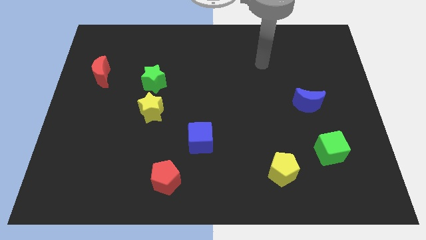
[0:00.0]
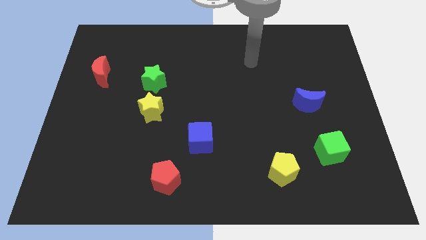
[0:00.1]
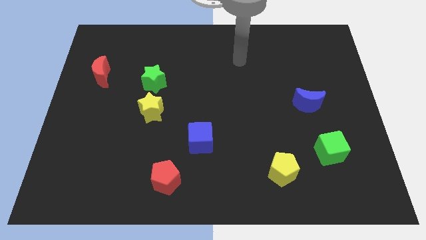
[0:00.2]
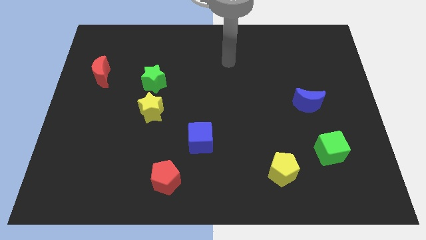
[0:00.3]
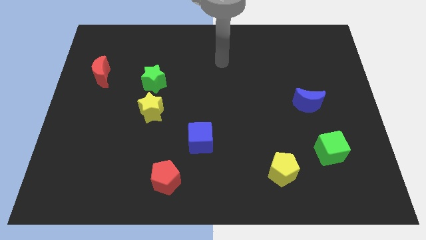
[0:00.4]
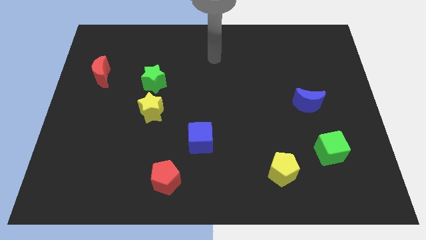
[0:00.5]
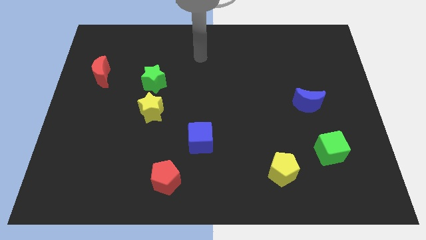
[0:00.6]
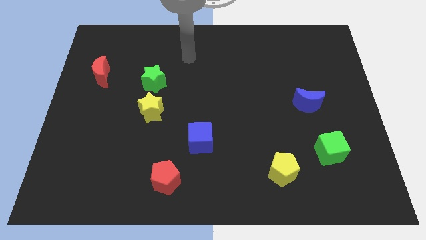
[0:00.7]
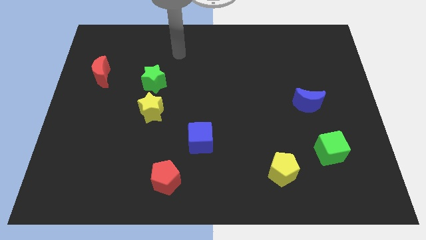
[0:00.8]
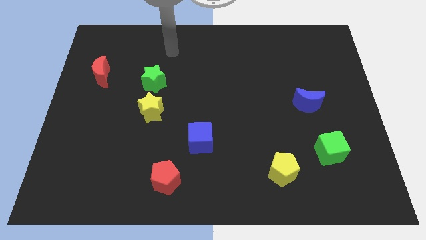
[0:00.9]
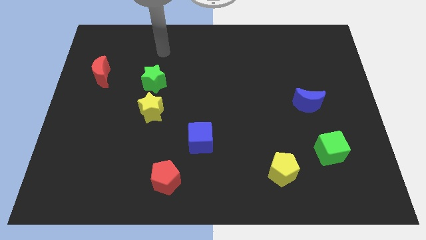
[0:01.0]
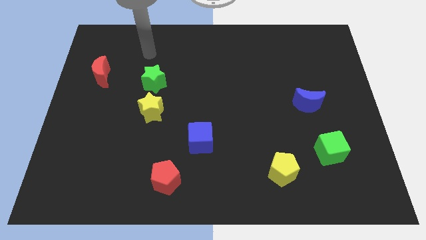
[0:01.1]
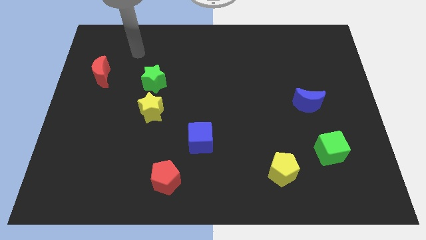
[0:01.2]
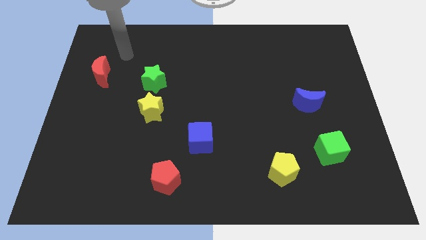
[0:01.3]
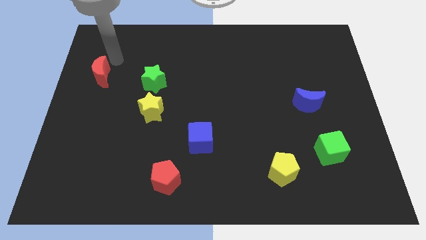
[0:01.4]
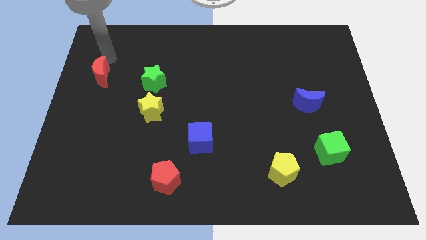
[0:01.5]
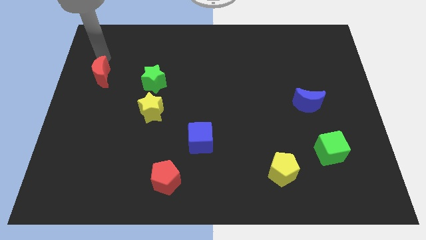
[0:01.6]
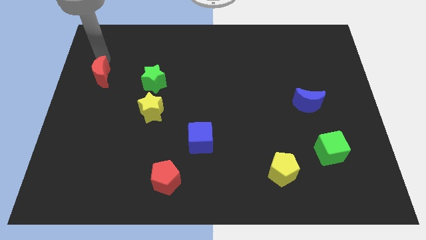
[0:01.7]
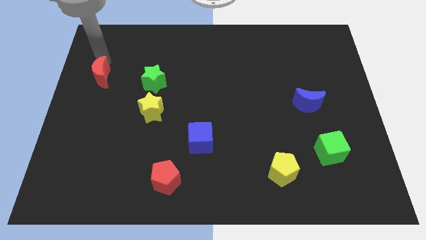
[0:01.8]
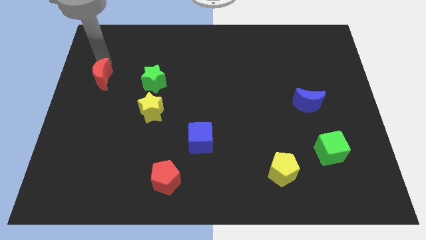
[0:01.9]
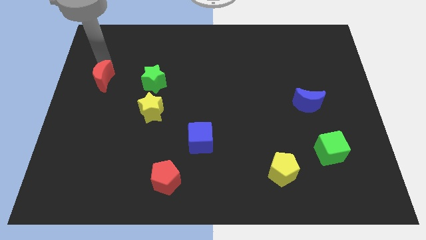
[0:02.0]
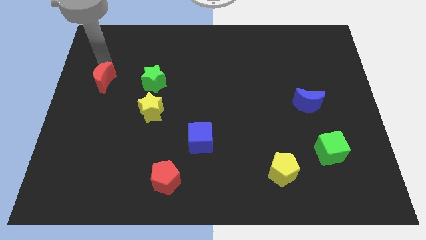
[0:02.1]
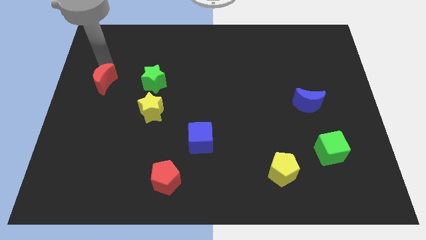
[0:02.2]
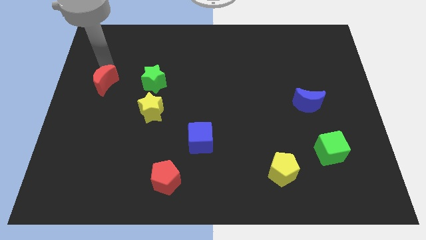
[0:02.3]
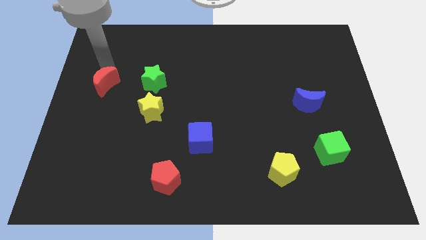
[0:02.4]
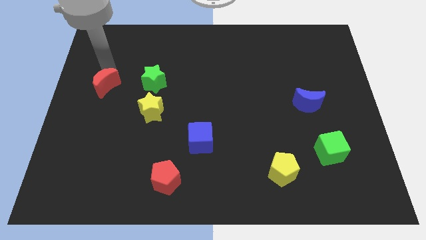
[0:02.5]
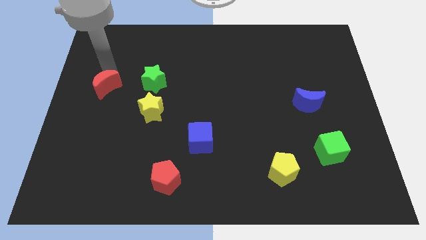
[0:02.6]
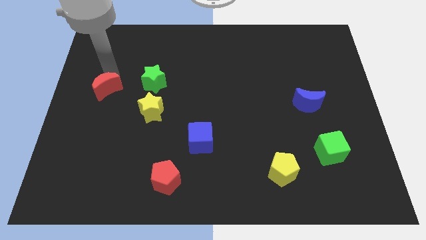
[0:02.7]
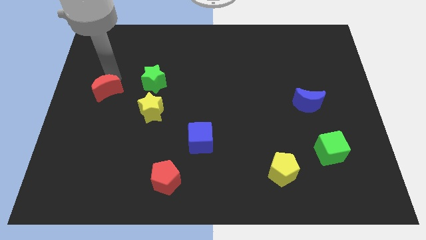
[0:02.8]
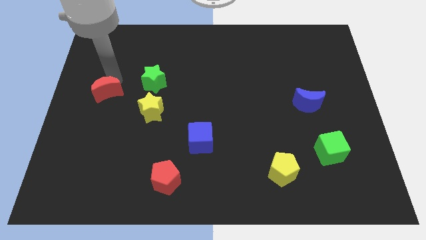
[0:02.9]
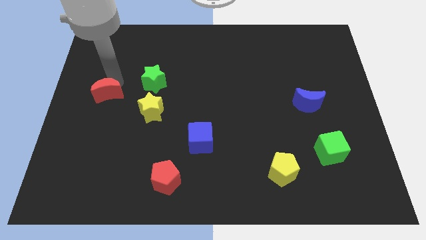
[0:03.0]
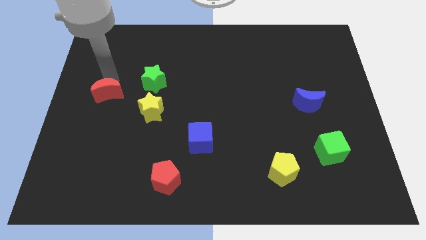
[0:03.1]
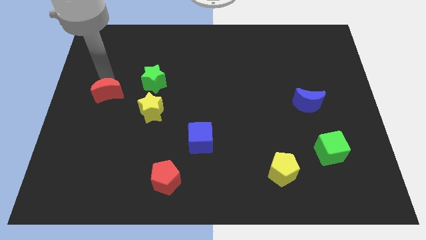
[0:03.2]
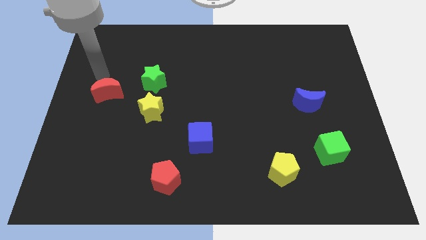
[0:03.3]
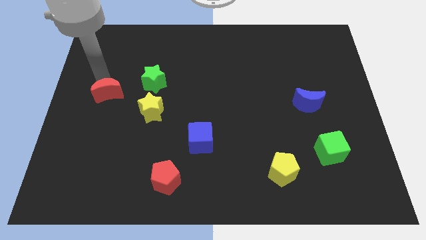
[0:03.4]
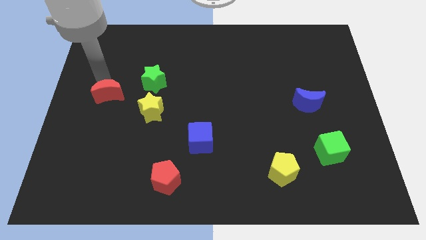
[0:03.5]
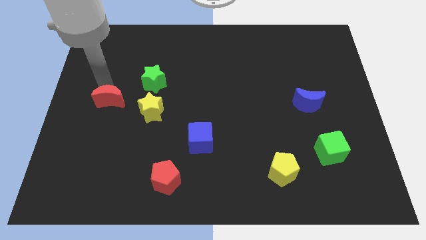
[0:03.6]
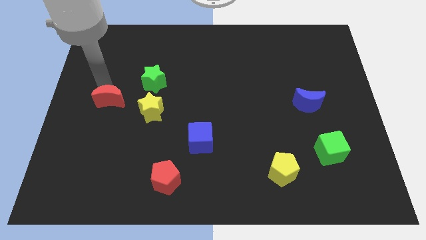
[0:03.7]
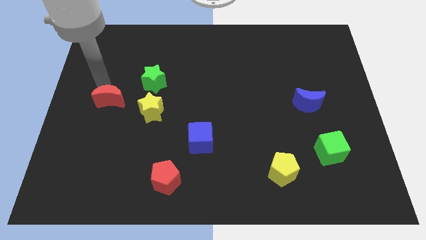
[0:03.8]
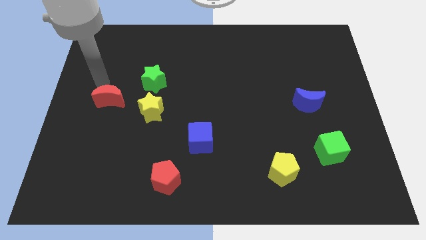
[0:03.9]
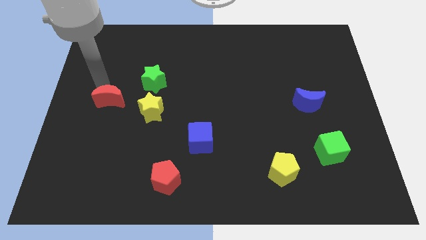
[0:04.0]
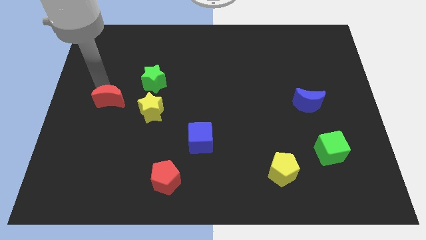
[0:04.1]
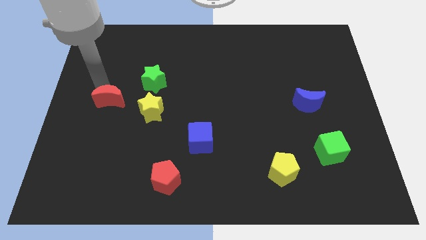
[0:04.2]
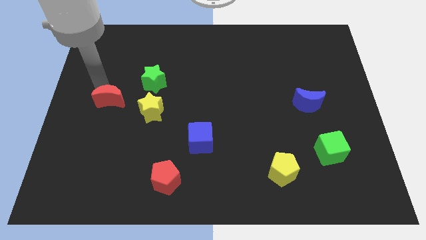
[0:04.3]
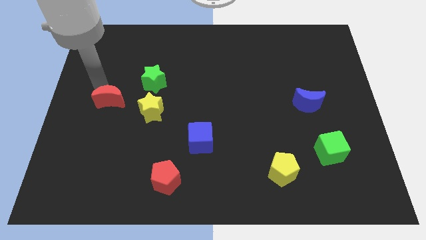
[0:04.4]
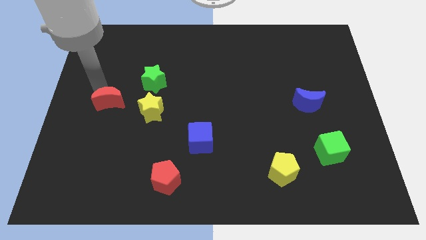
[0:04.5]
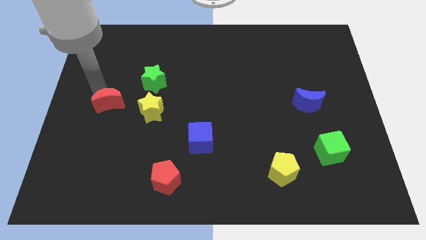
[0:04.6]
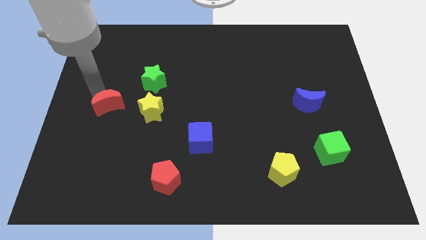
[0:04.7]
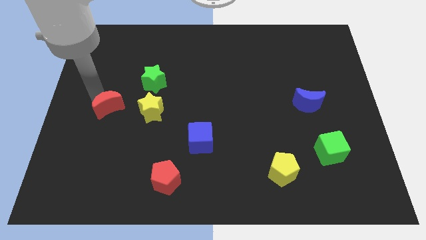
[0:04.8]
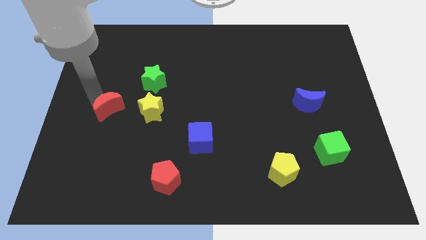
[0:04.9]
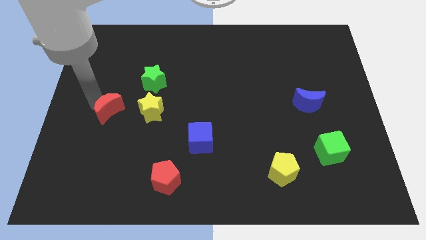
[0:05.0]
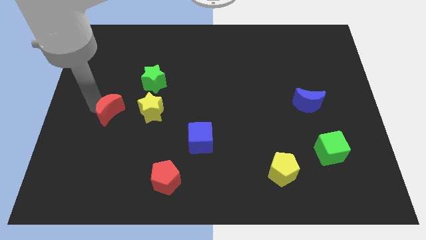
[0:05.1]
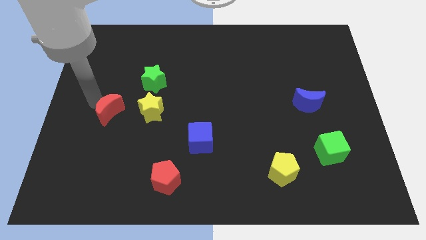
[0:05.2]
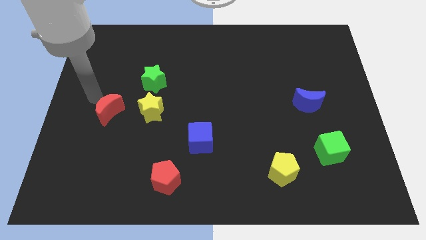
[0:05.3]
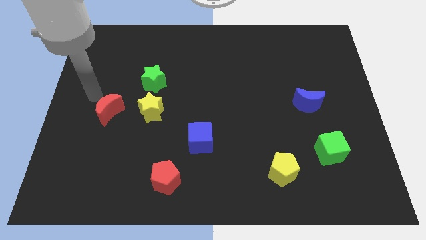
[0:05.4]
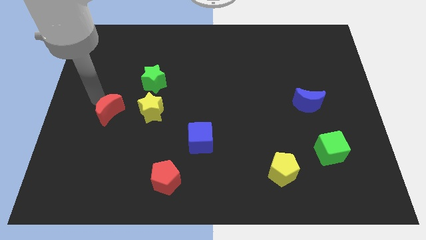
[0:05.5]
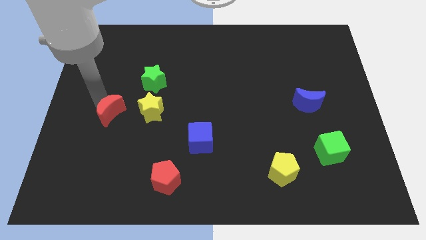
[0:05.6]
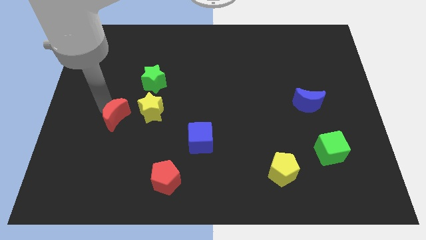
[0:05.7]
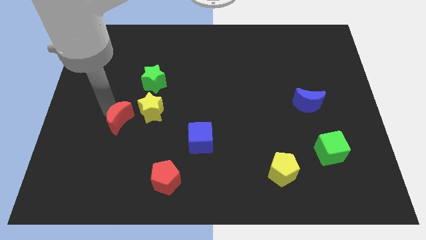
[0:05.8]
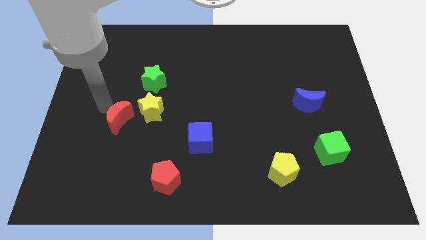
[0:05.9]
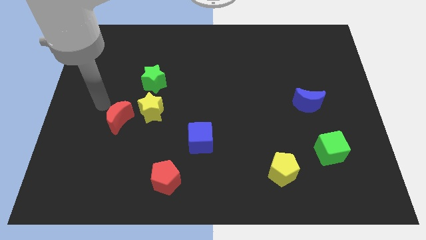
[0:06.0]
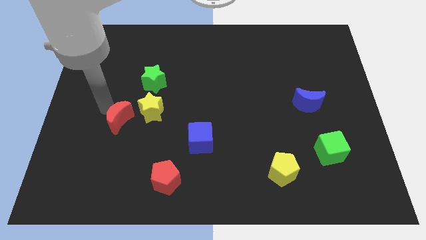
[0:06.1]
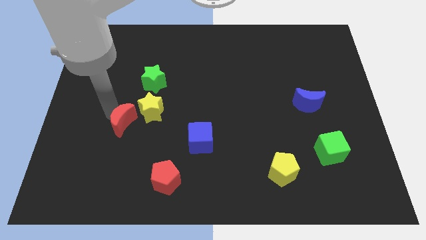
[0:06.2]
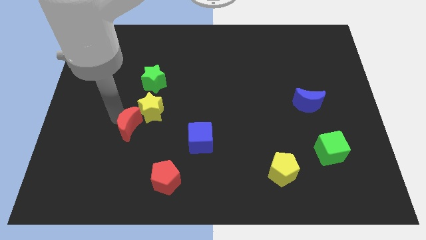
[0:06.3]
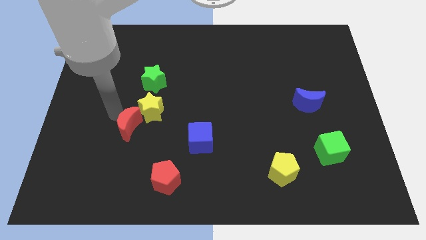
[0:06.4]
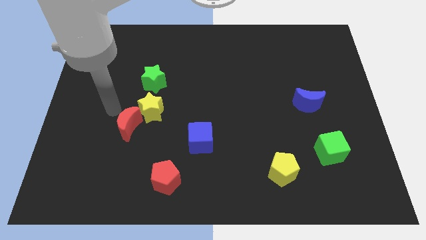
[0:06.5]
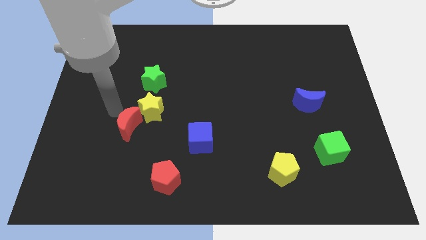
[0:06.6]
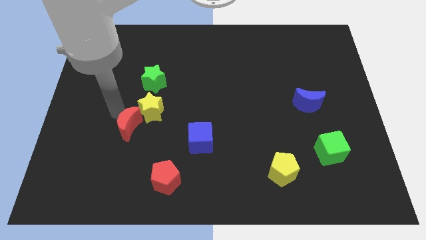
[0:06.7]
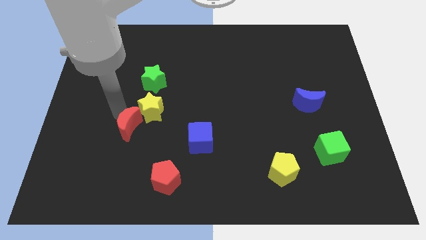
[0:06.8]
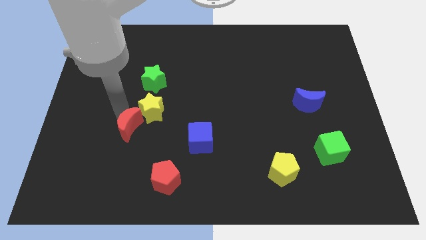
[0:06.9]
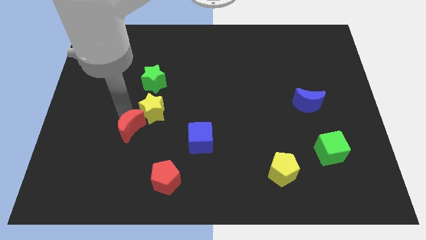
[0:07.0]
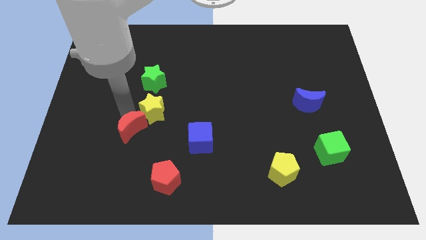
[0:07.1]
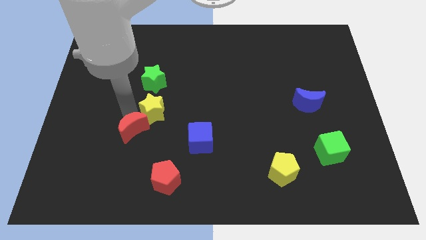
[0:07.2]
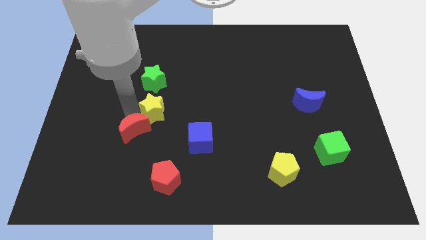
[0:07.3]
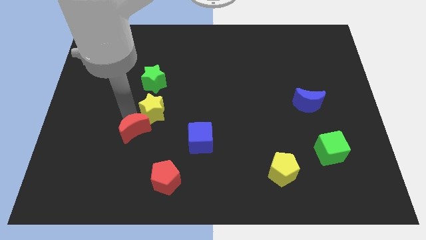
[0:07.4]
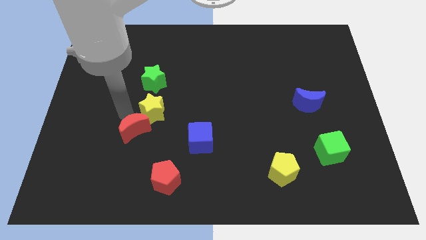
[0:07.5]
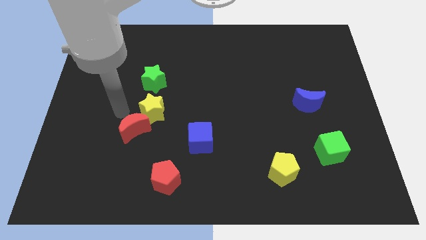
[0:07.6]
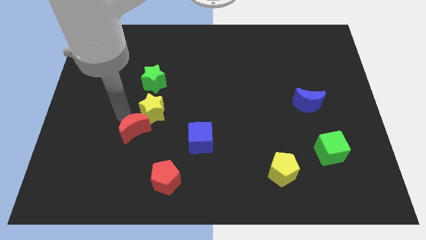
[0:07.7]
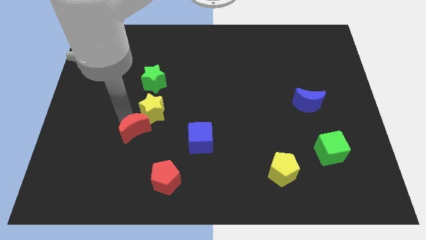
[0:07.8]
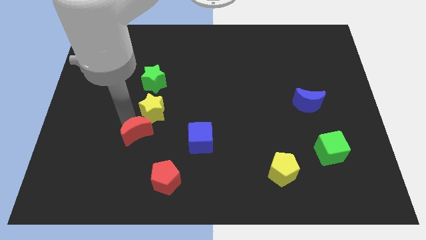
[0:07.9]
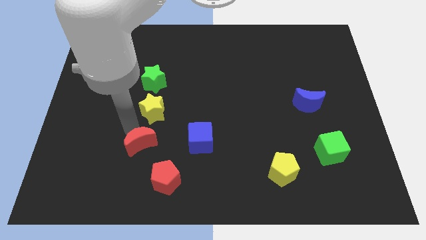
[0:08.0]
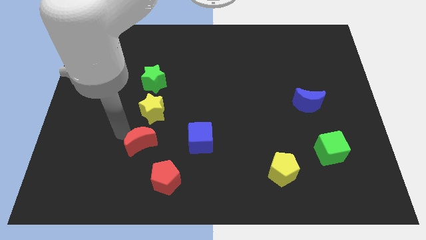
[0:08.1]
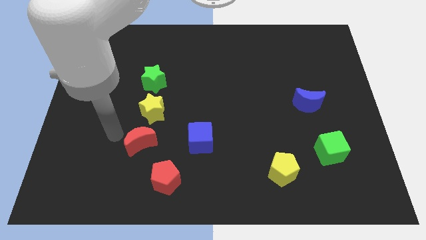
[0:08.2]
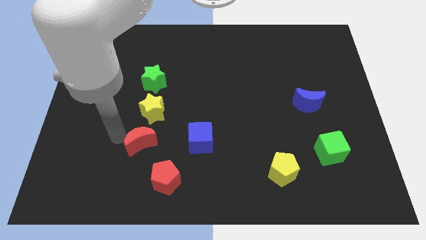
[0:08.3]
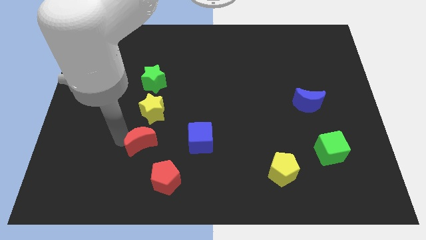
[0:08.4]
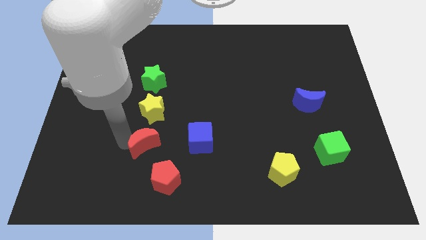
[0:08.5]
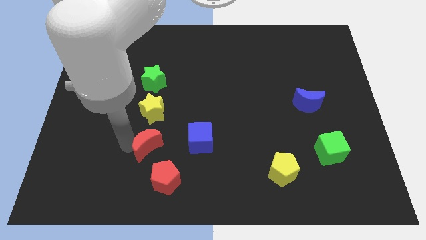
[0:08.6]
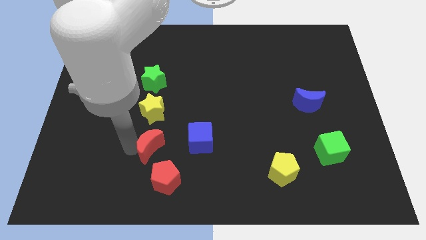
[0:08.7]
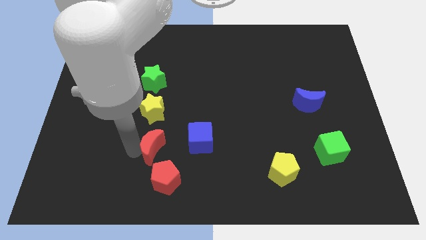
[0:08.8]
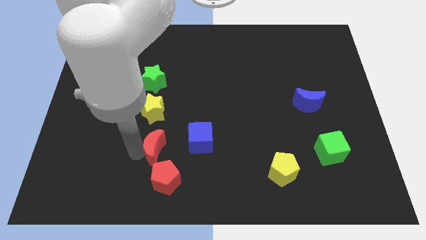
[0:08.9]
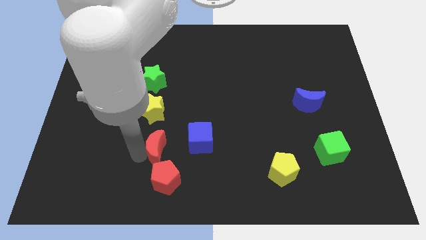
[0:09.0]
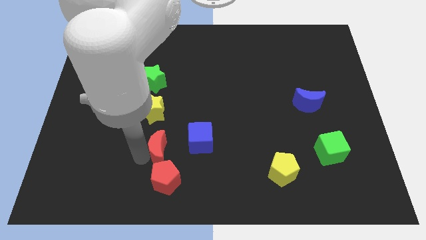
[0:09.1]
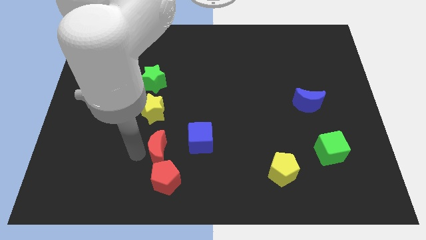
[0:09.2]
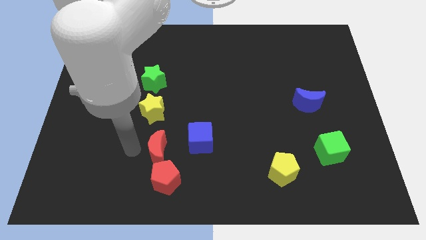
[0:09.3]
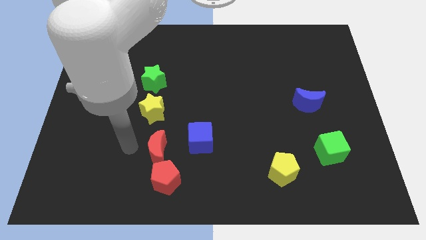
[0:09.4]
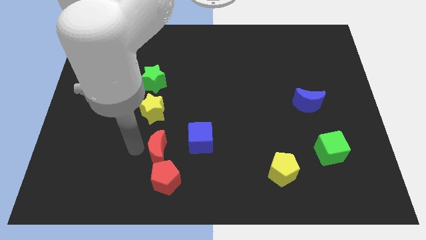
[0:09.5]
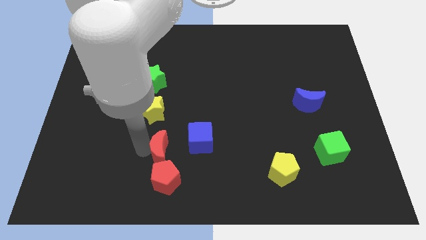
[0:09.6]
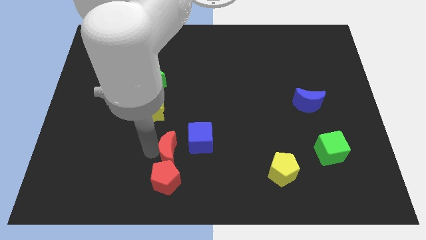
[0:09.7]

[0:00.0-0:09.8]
move the red moon to the top right side of the red pentagon
